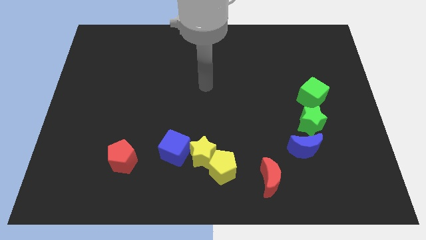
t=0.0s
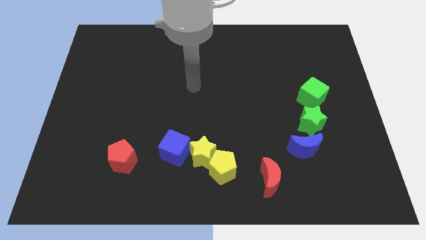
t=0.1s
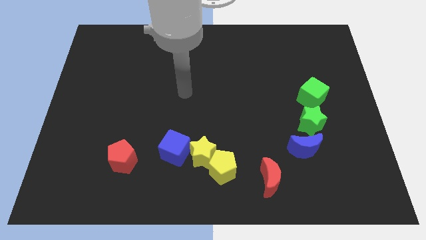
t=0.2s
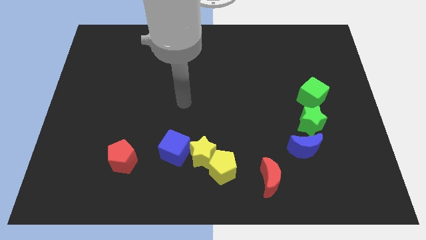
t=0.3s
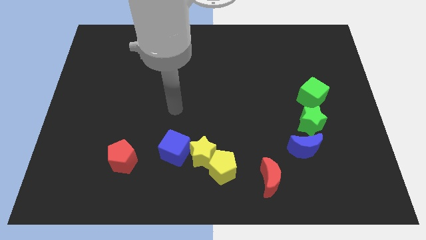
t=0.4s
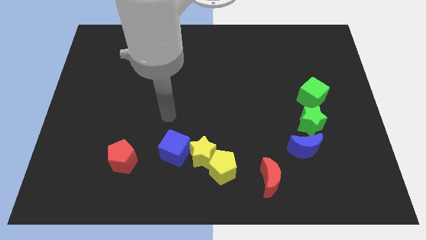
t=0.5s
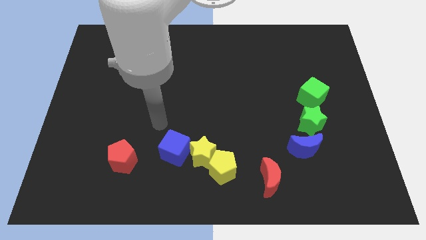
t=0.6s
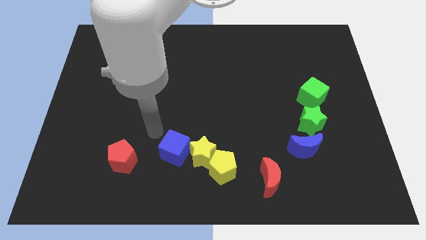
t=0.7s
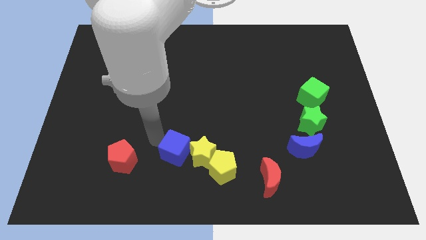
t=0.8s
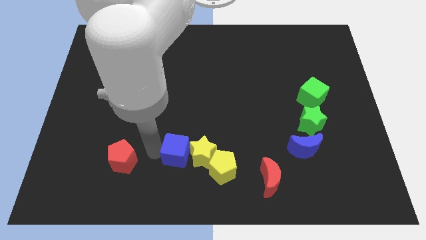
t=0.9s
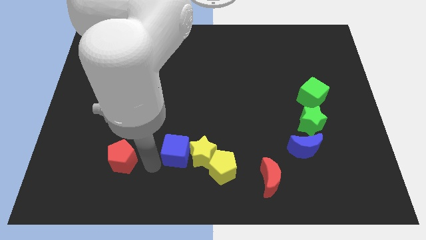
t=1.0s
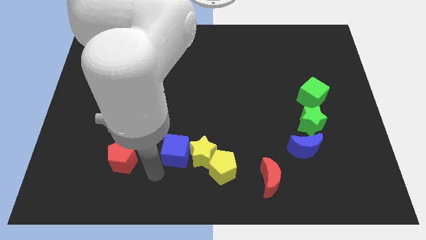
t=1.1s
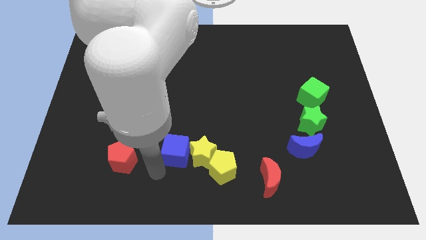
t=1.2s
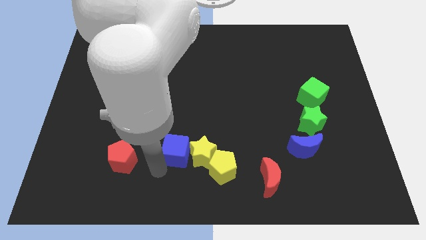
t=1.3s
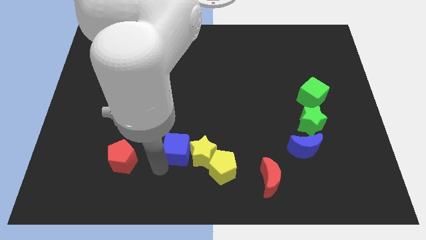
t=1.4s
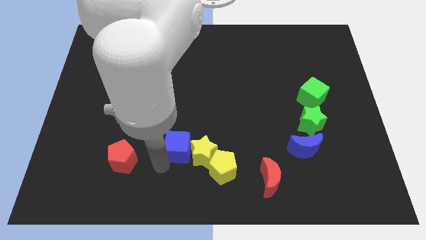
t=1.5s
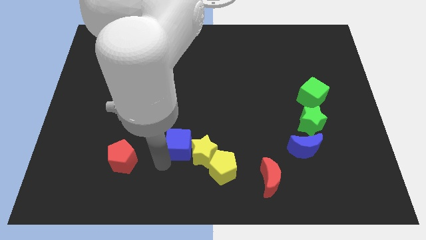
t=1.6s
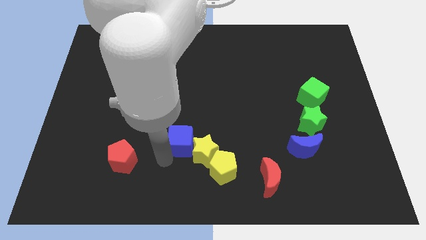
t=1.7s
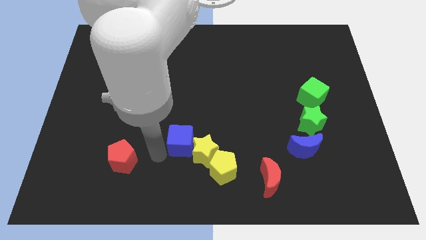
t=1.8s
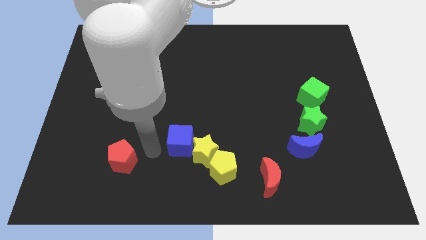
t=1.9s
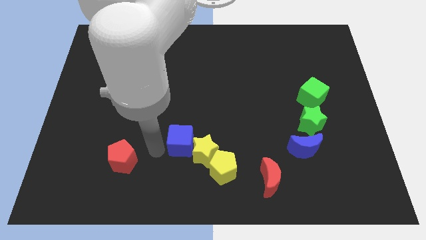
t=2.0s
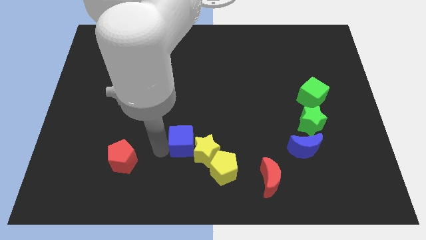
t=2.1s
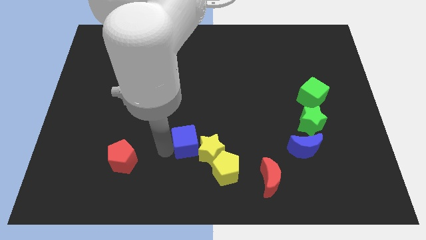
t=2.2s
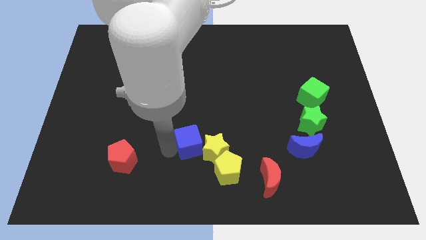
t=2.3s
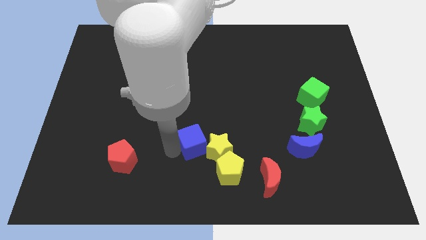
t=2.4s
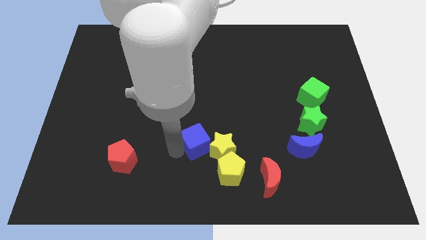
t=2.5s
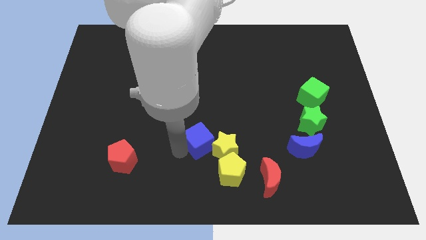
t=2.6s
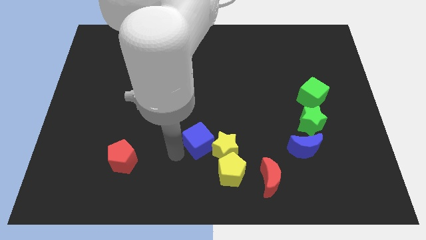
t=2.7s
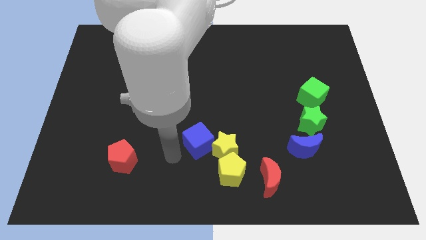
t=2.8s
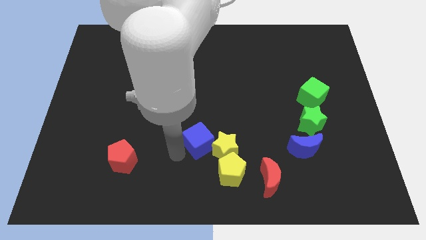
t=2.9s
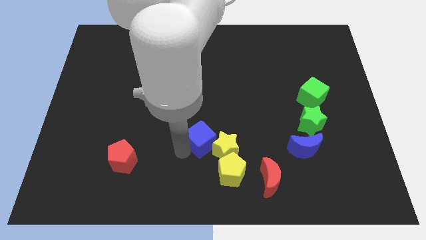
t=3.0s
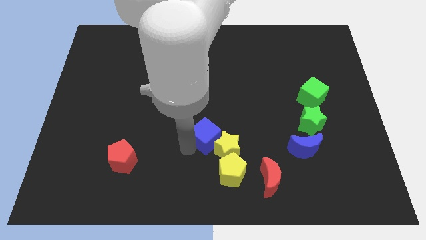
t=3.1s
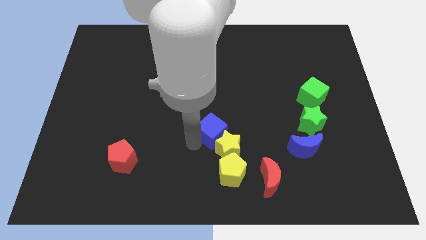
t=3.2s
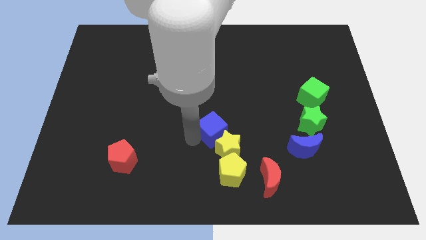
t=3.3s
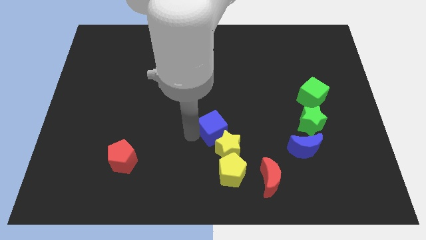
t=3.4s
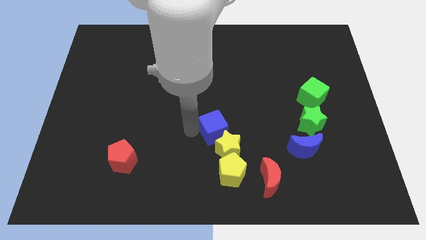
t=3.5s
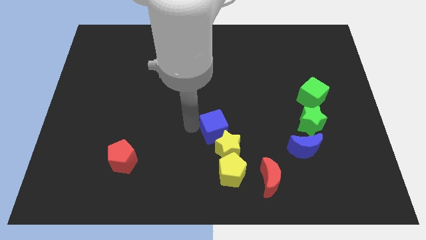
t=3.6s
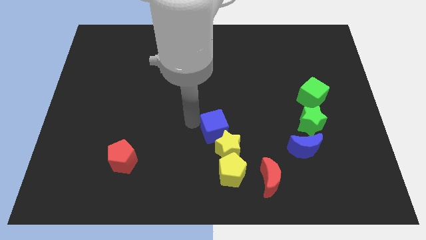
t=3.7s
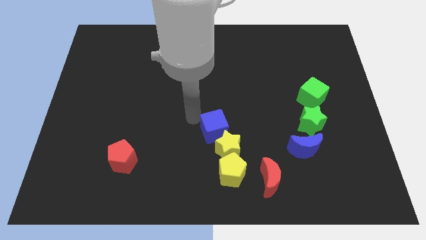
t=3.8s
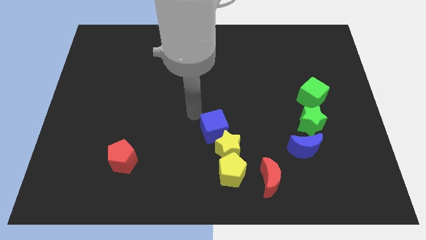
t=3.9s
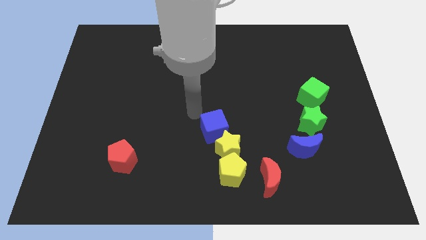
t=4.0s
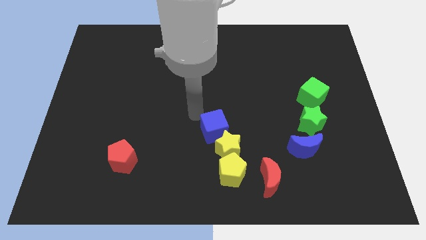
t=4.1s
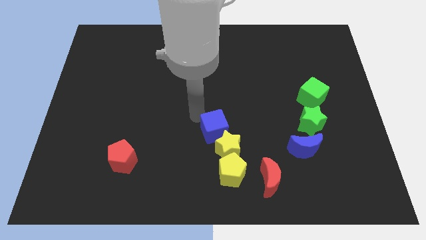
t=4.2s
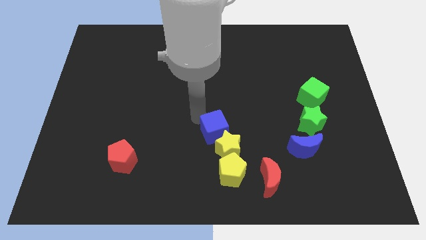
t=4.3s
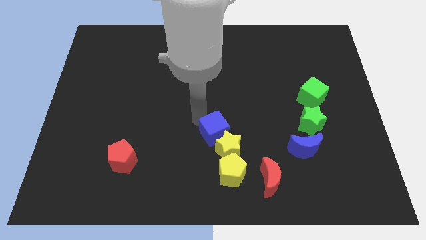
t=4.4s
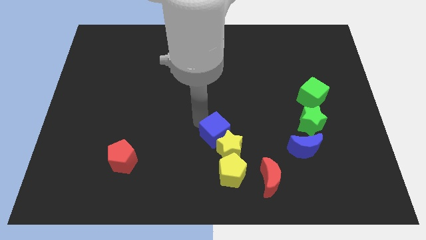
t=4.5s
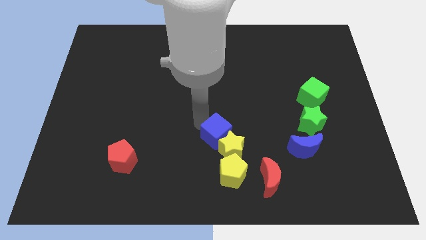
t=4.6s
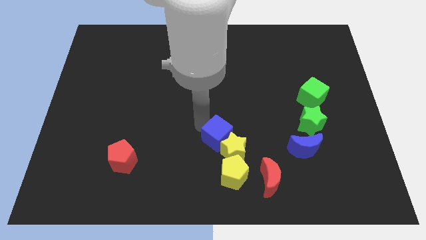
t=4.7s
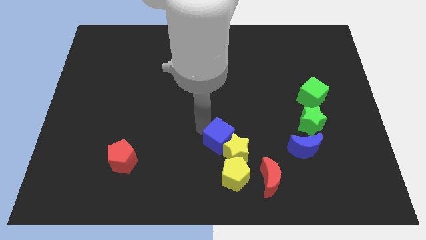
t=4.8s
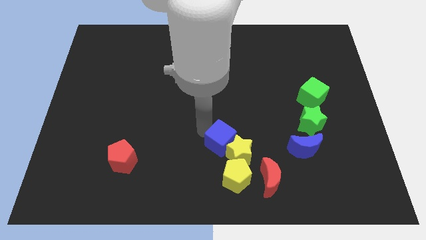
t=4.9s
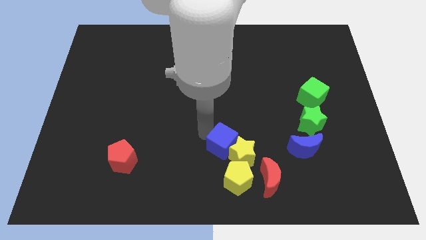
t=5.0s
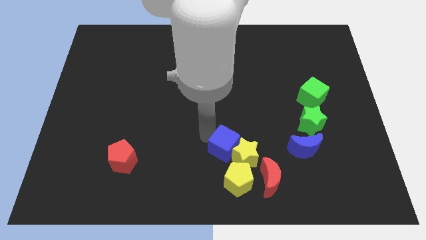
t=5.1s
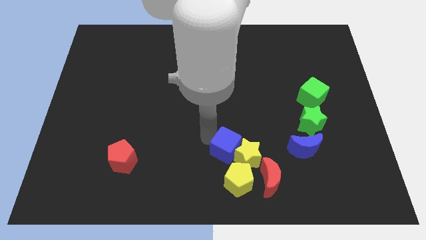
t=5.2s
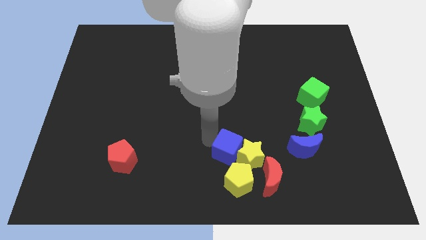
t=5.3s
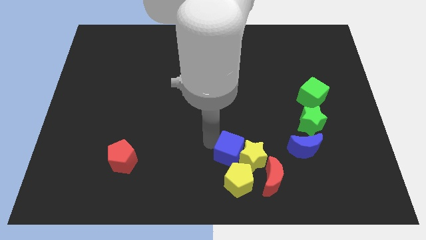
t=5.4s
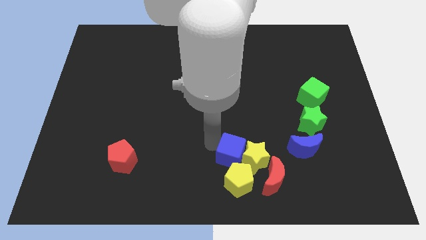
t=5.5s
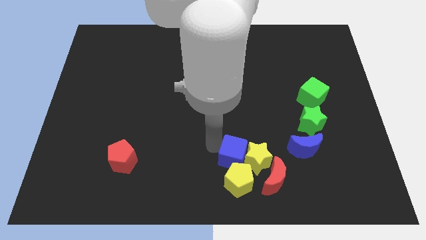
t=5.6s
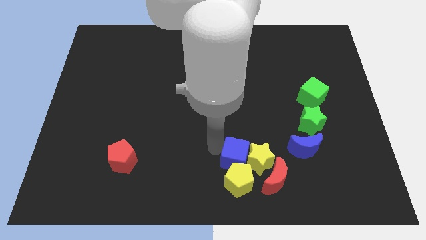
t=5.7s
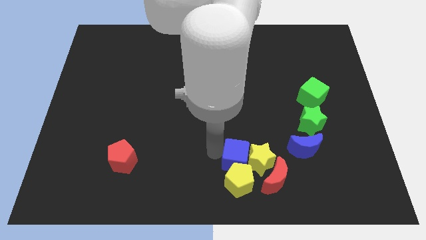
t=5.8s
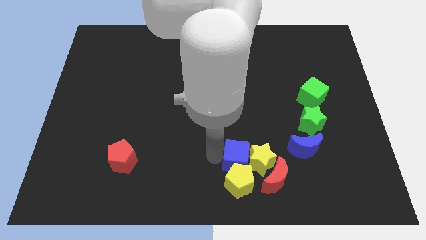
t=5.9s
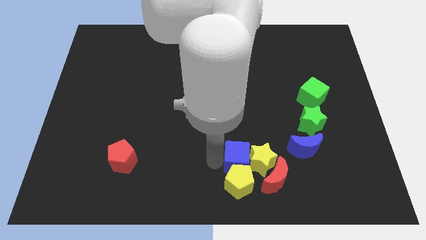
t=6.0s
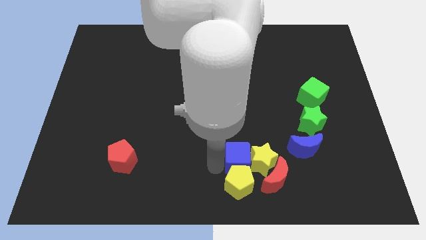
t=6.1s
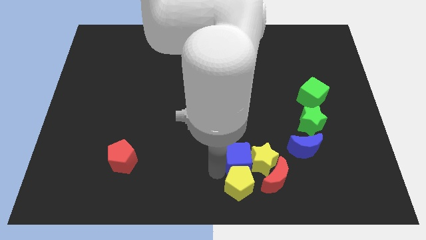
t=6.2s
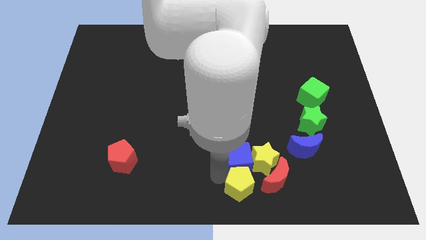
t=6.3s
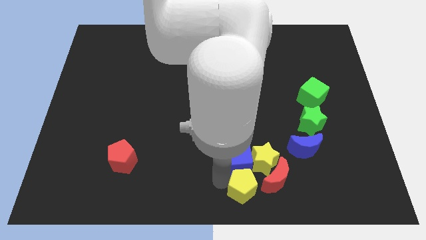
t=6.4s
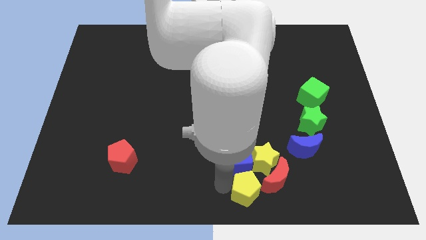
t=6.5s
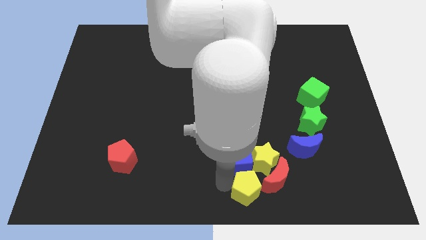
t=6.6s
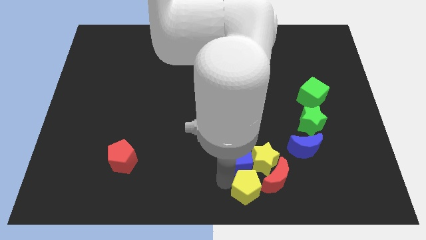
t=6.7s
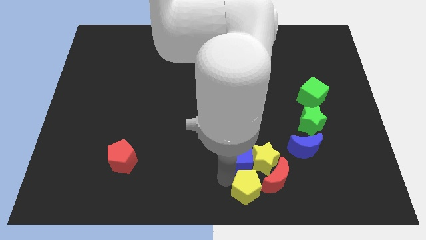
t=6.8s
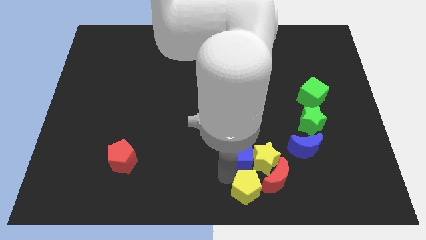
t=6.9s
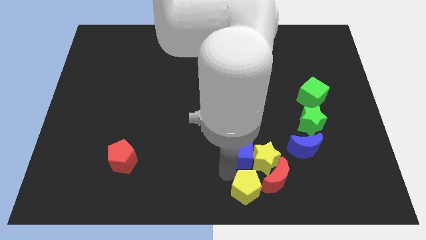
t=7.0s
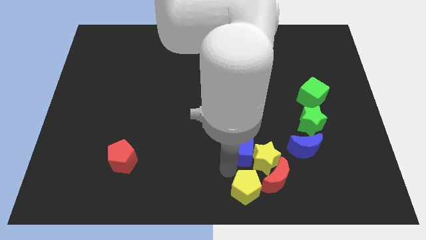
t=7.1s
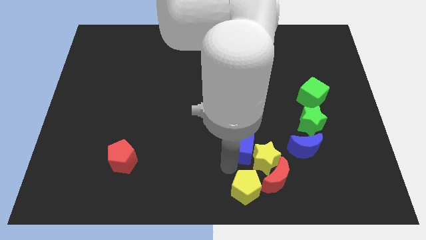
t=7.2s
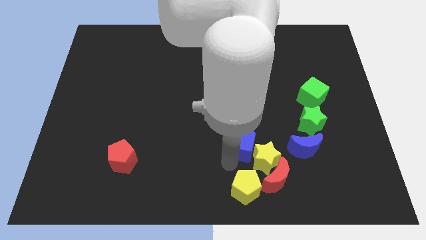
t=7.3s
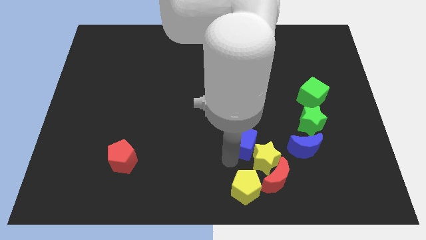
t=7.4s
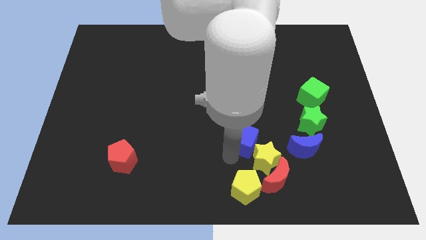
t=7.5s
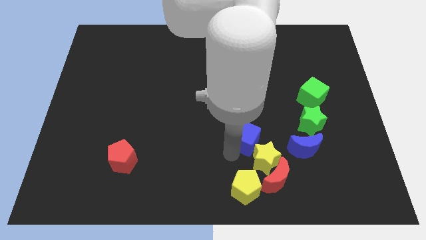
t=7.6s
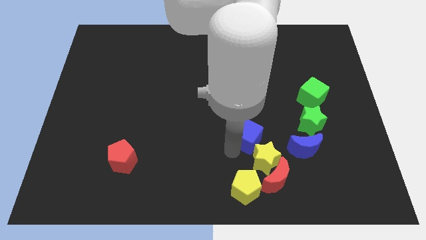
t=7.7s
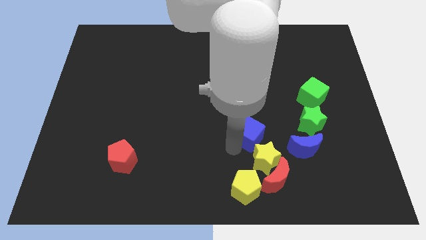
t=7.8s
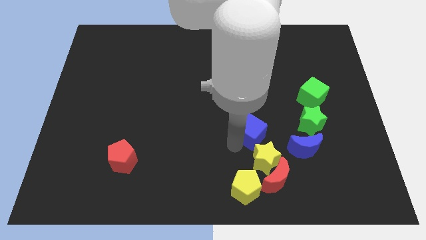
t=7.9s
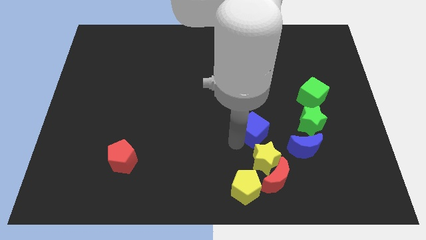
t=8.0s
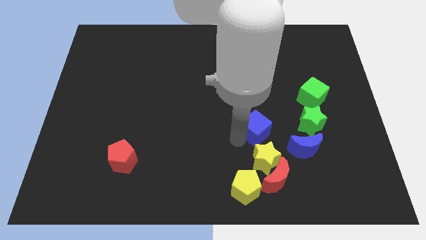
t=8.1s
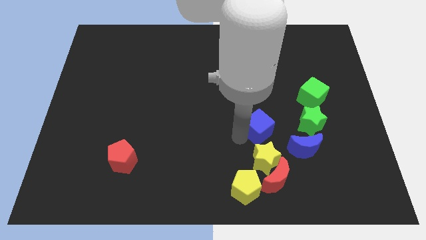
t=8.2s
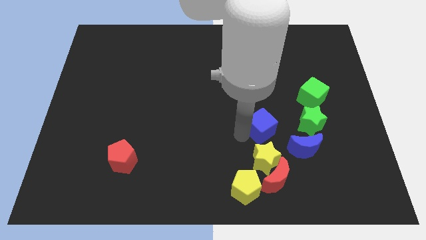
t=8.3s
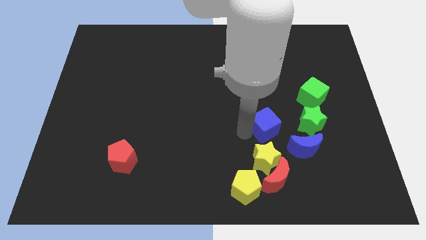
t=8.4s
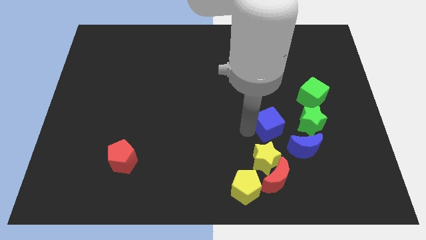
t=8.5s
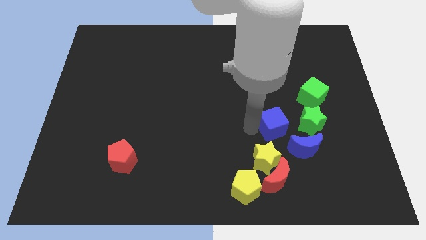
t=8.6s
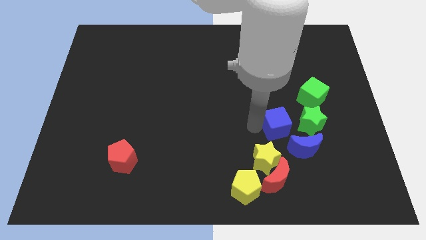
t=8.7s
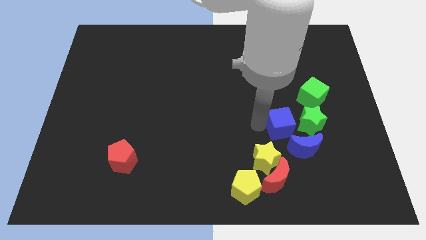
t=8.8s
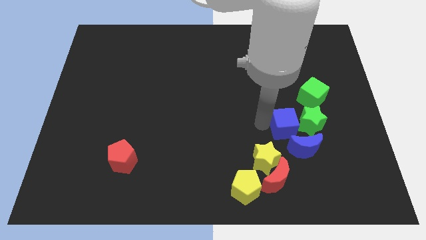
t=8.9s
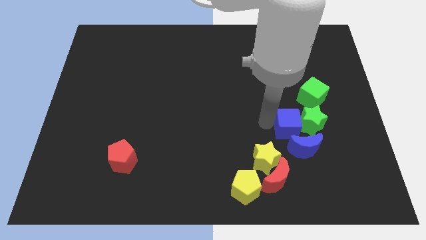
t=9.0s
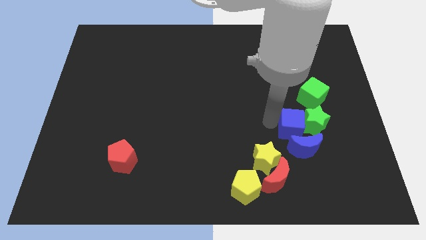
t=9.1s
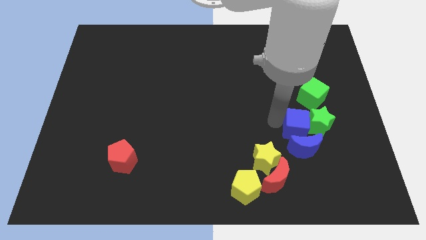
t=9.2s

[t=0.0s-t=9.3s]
push the blue cube to the top right of the blue moon
